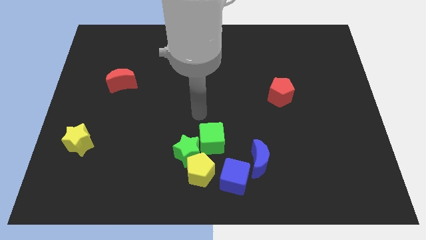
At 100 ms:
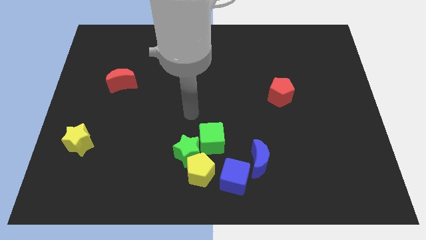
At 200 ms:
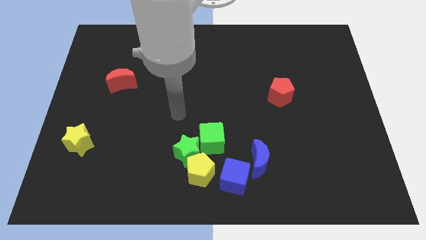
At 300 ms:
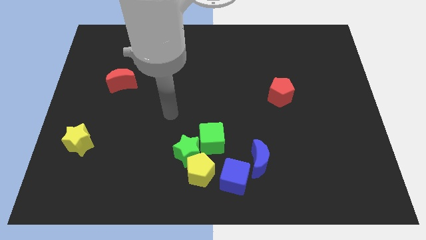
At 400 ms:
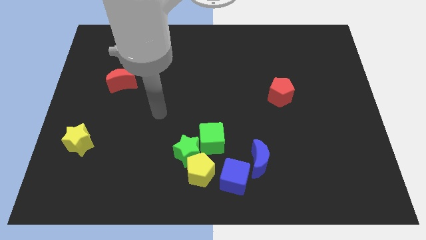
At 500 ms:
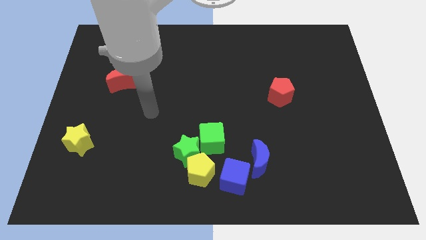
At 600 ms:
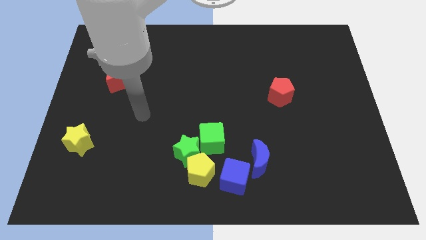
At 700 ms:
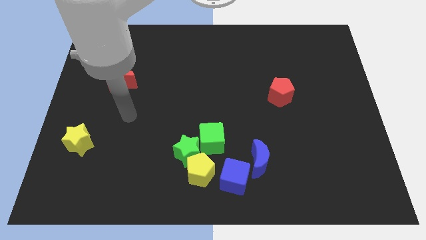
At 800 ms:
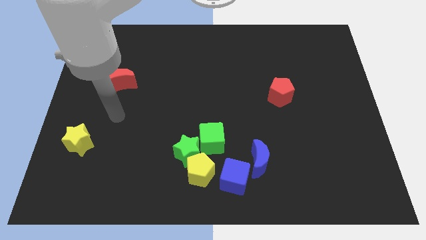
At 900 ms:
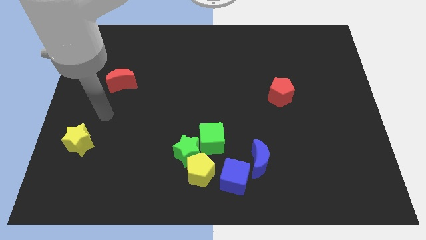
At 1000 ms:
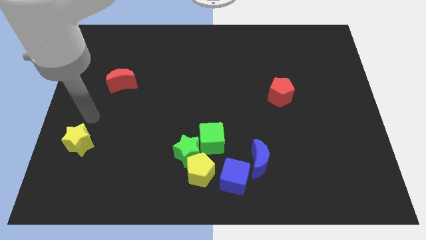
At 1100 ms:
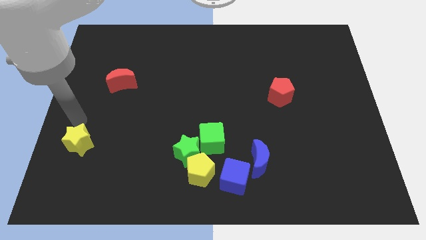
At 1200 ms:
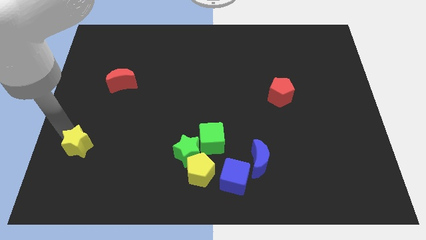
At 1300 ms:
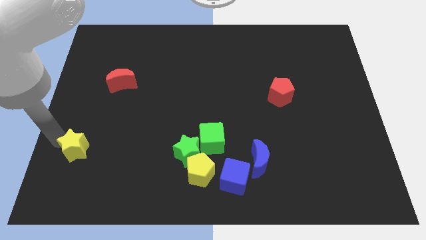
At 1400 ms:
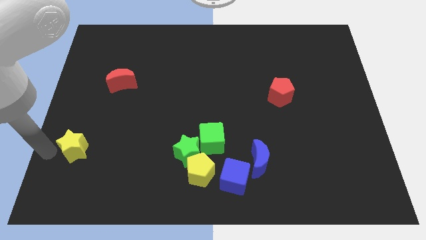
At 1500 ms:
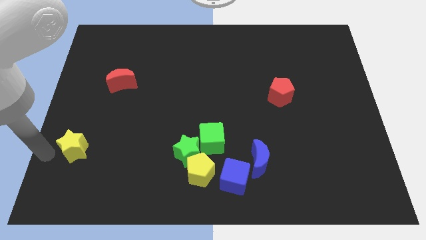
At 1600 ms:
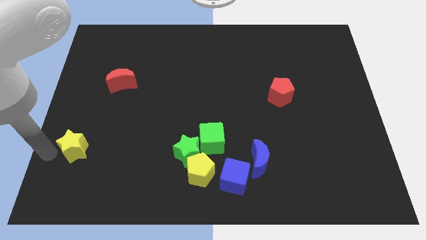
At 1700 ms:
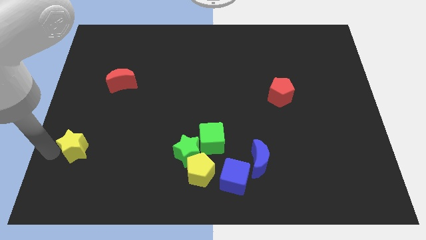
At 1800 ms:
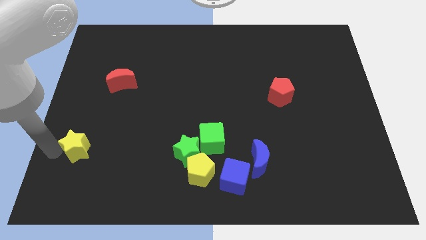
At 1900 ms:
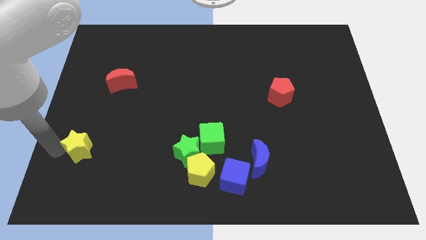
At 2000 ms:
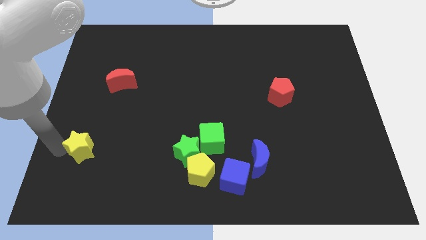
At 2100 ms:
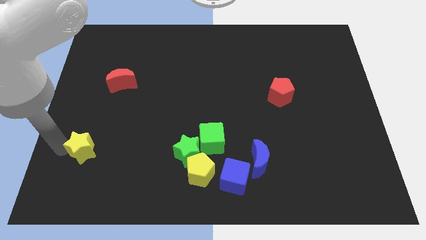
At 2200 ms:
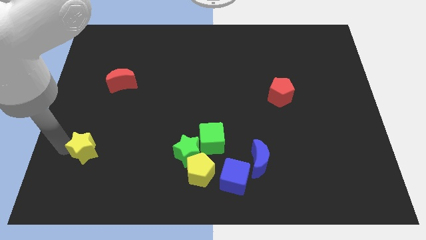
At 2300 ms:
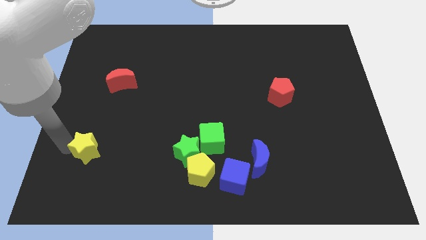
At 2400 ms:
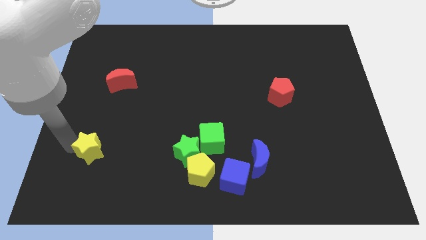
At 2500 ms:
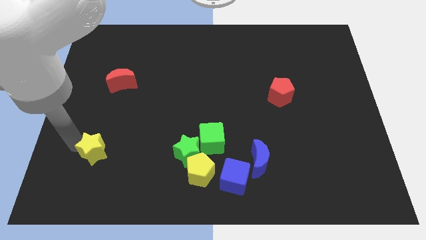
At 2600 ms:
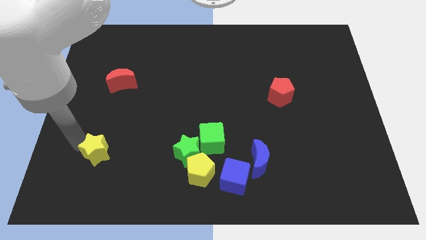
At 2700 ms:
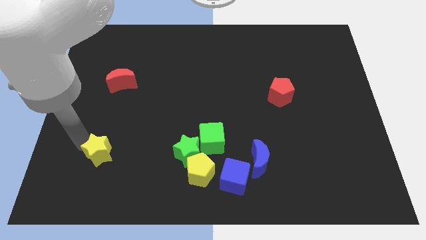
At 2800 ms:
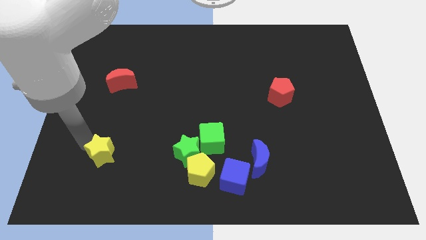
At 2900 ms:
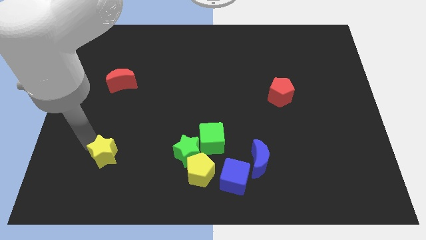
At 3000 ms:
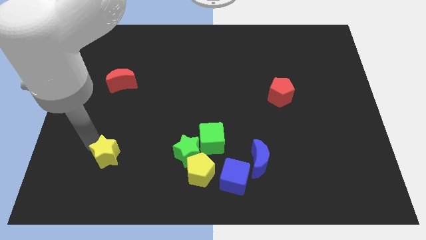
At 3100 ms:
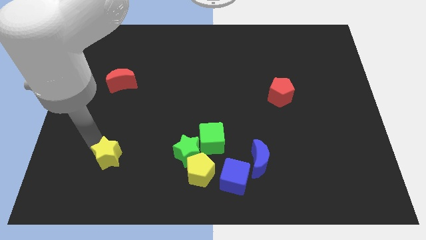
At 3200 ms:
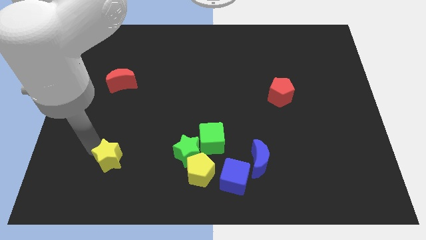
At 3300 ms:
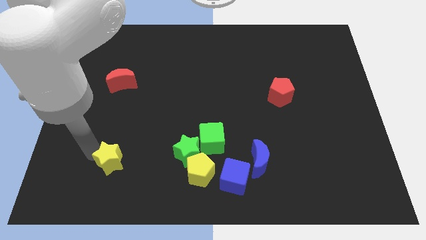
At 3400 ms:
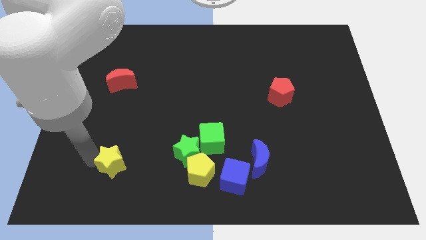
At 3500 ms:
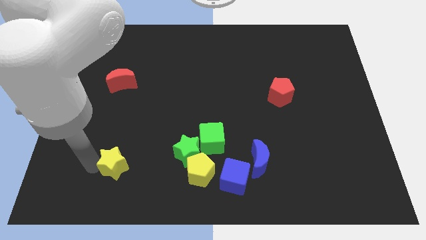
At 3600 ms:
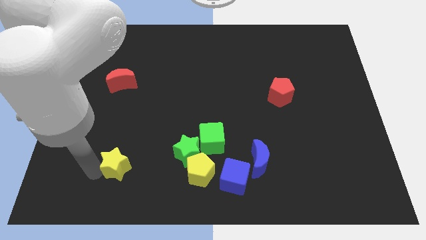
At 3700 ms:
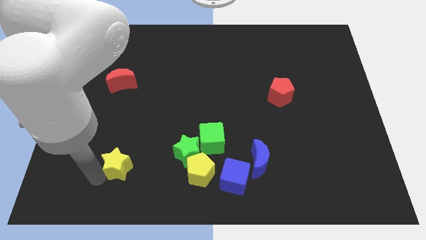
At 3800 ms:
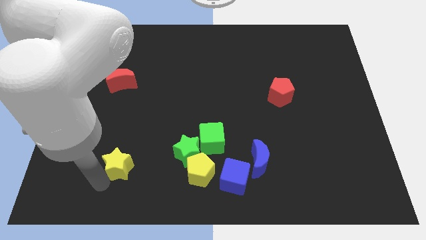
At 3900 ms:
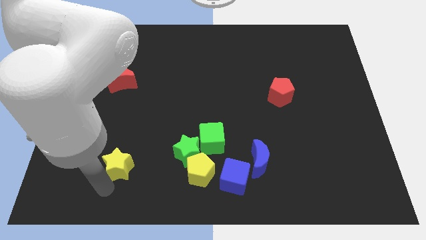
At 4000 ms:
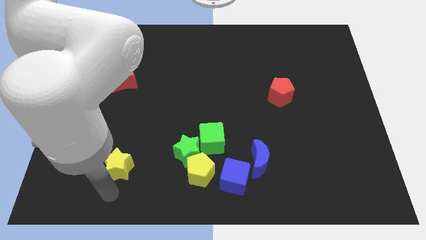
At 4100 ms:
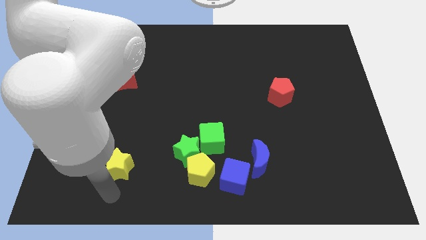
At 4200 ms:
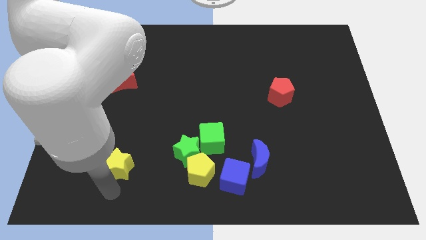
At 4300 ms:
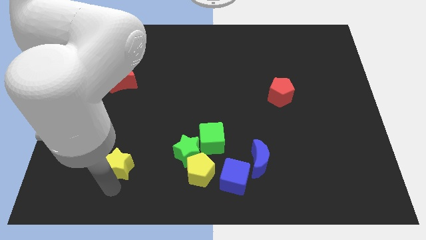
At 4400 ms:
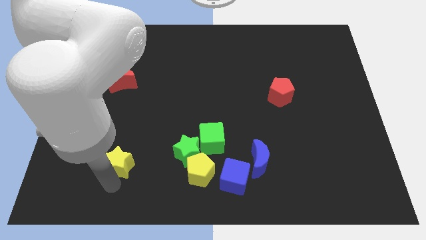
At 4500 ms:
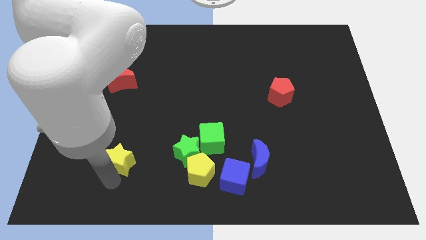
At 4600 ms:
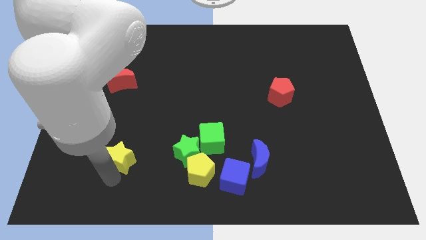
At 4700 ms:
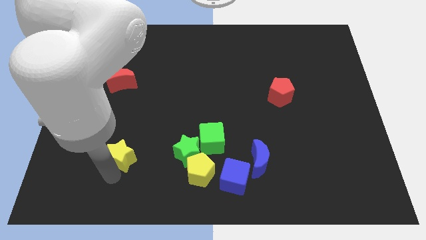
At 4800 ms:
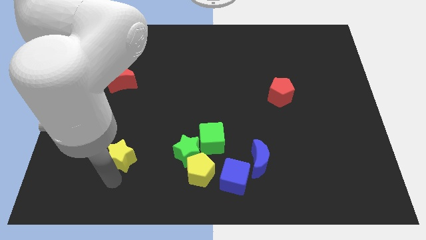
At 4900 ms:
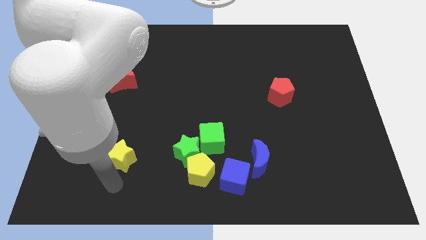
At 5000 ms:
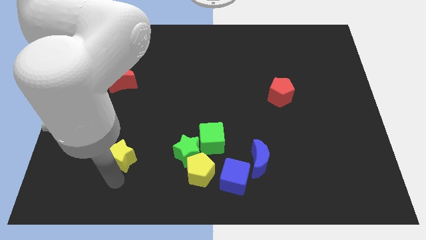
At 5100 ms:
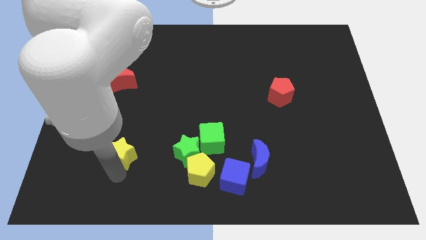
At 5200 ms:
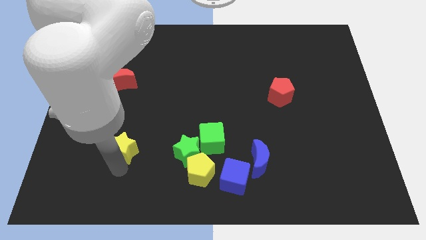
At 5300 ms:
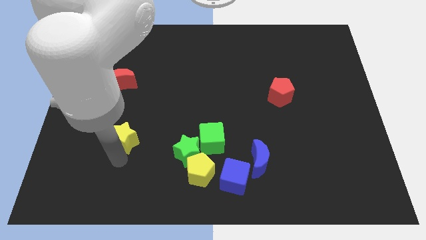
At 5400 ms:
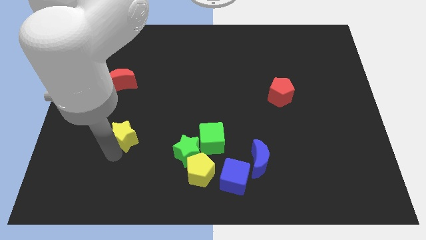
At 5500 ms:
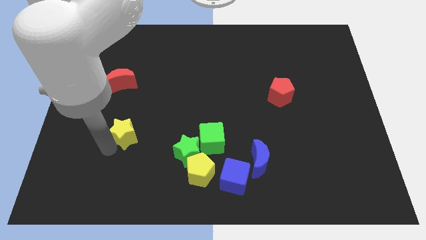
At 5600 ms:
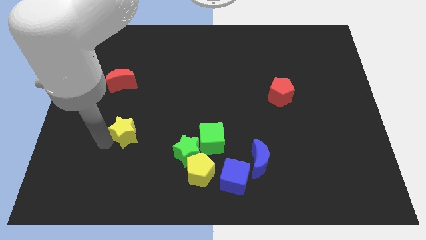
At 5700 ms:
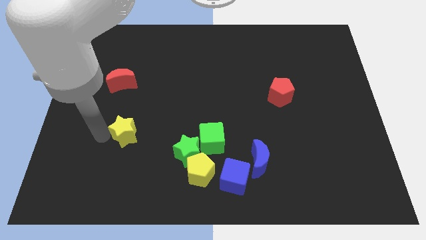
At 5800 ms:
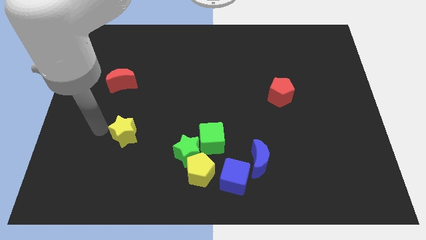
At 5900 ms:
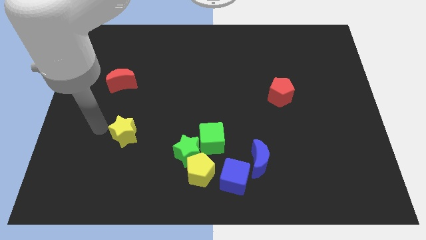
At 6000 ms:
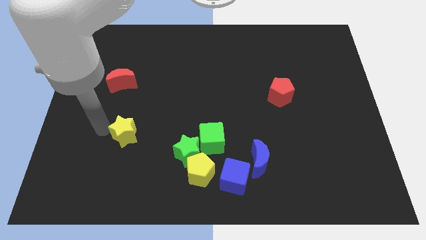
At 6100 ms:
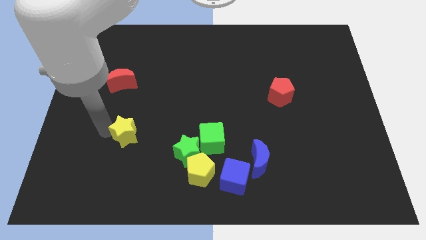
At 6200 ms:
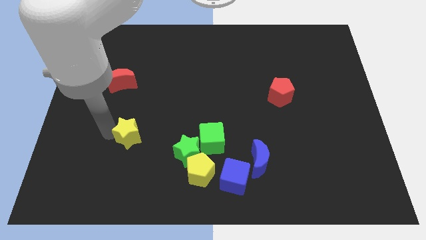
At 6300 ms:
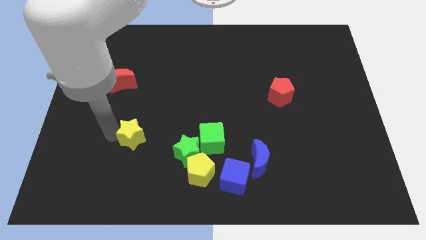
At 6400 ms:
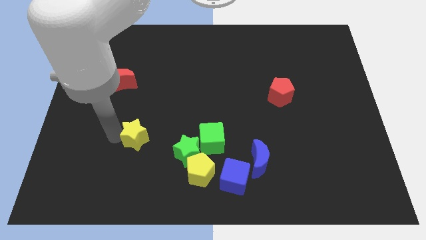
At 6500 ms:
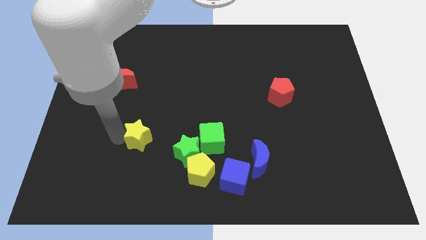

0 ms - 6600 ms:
slide the yellow star to the left of the green cube

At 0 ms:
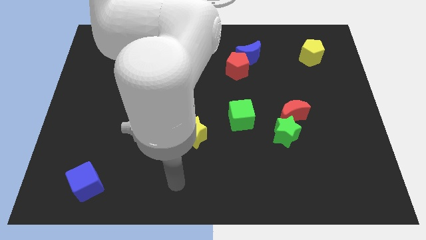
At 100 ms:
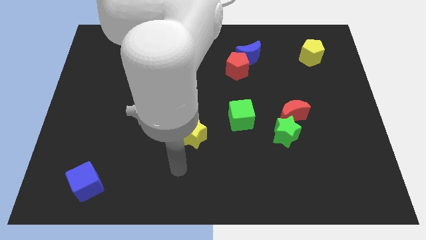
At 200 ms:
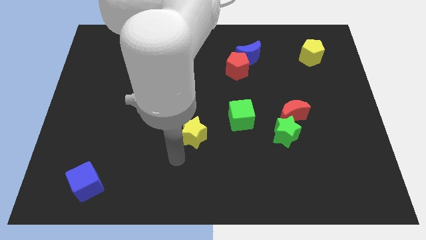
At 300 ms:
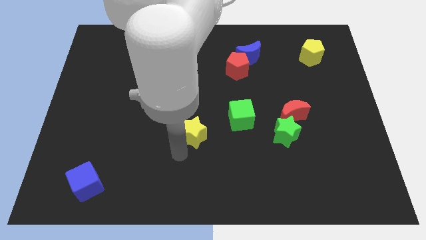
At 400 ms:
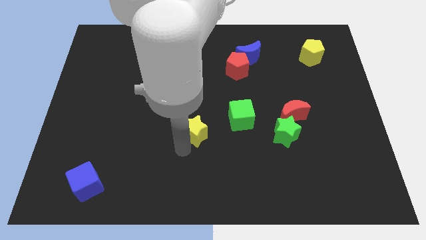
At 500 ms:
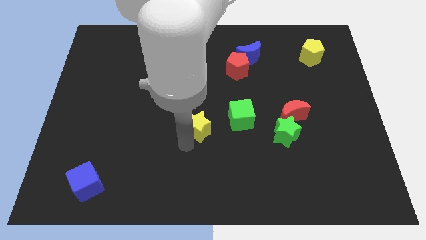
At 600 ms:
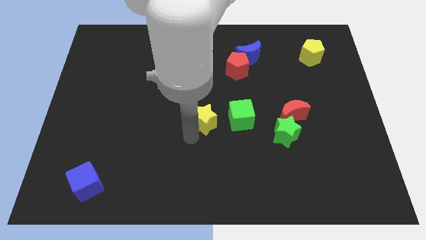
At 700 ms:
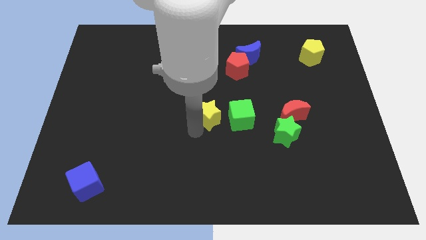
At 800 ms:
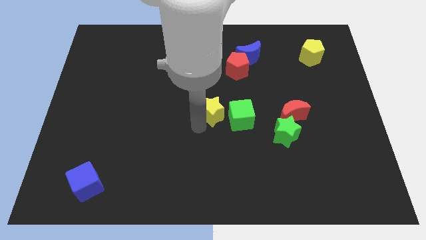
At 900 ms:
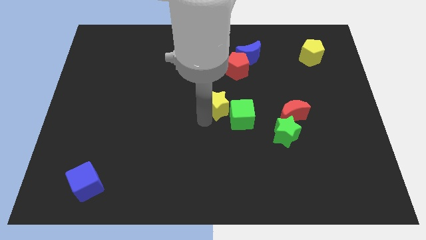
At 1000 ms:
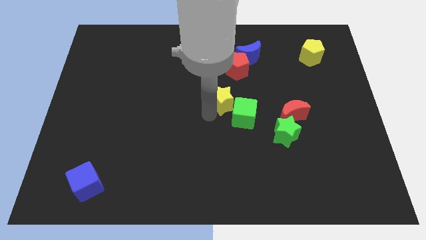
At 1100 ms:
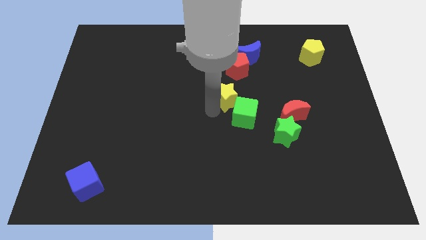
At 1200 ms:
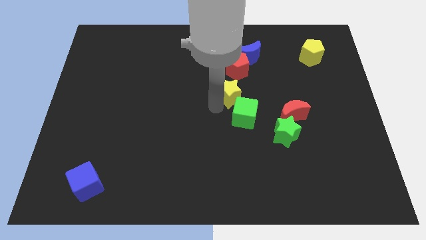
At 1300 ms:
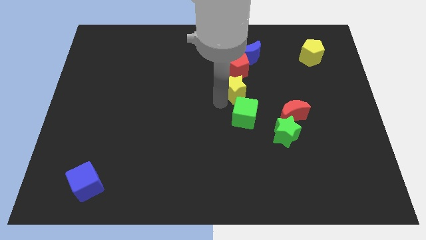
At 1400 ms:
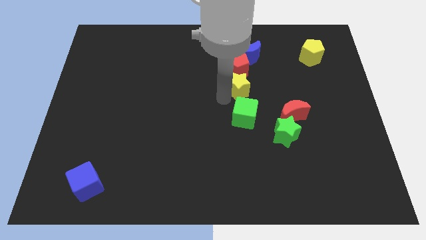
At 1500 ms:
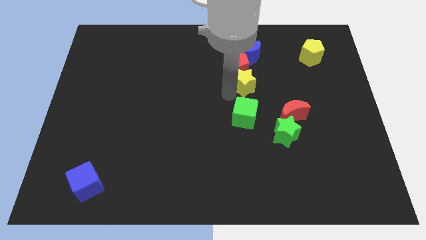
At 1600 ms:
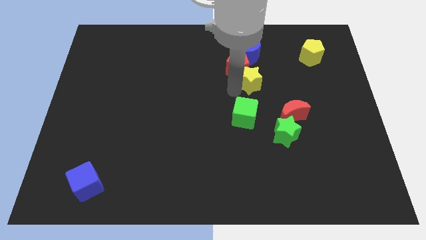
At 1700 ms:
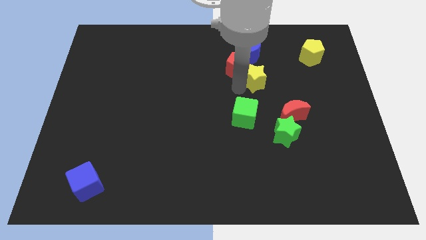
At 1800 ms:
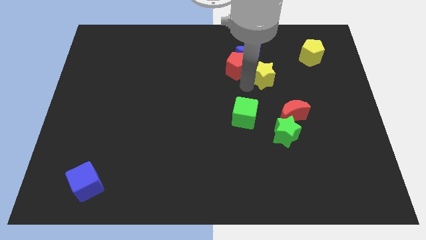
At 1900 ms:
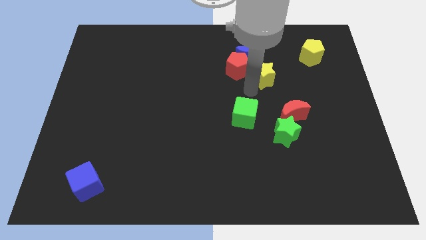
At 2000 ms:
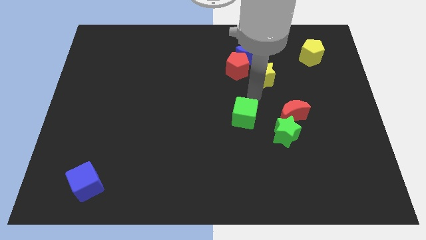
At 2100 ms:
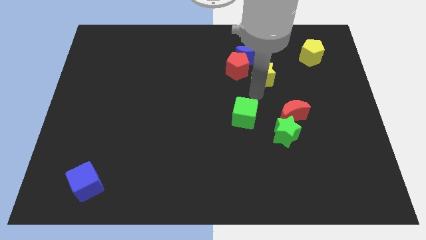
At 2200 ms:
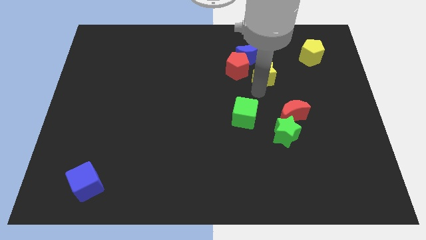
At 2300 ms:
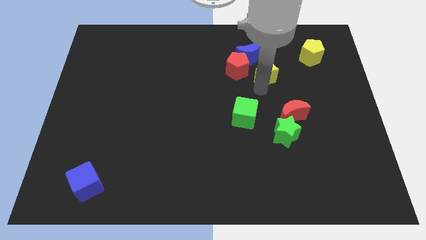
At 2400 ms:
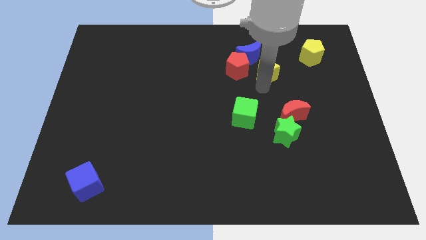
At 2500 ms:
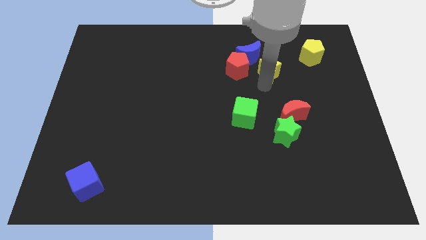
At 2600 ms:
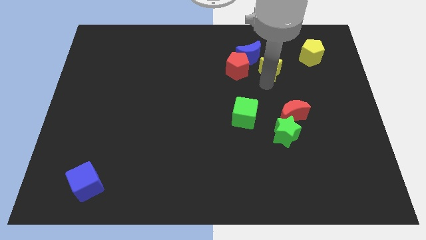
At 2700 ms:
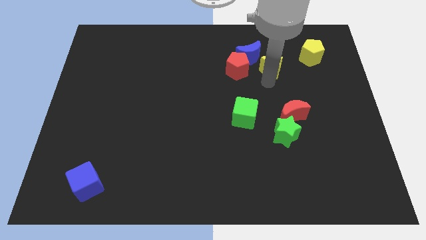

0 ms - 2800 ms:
put the yellow star to the left side of the yellow pentagon
